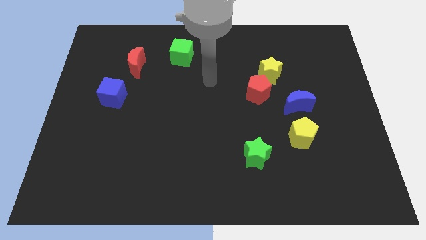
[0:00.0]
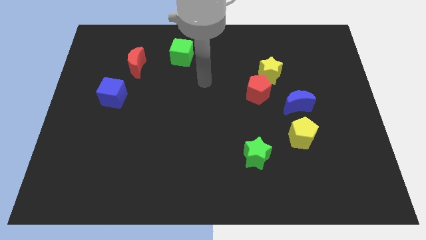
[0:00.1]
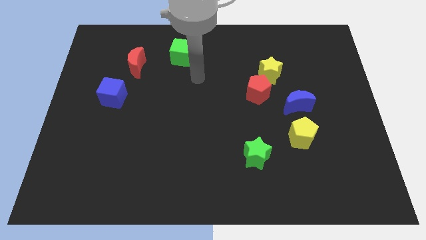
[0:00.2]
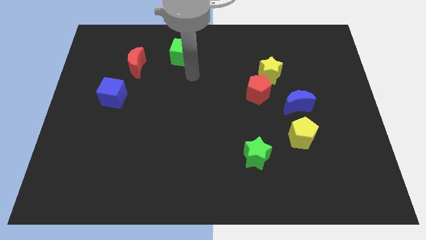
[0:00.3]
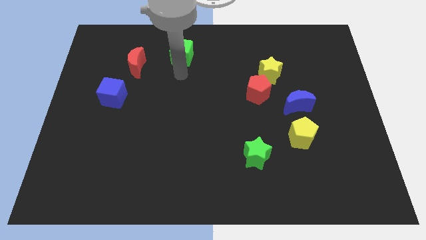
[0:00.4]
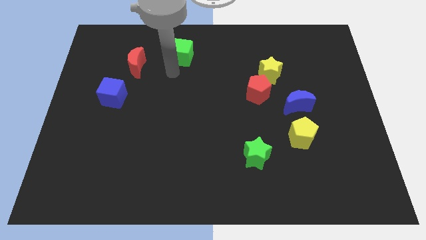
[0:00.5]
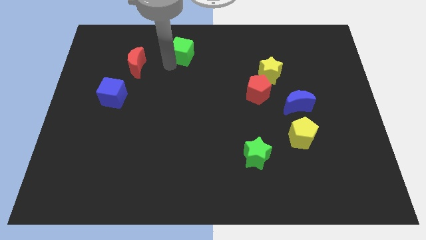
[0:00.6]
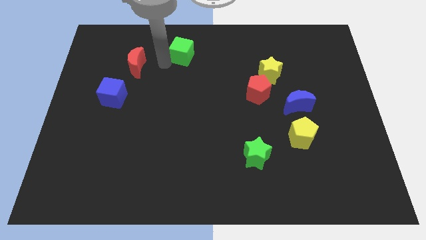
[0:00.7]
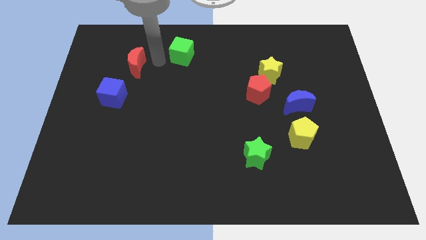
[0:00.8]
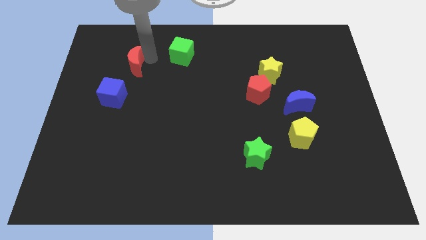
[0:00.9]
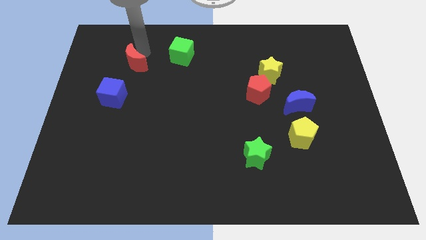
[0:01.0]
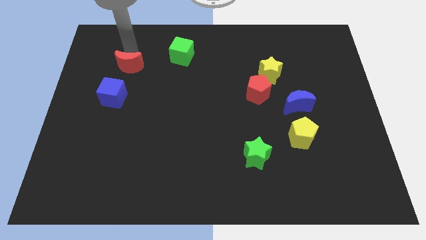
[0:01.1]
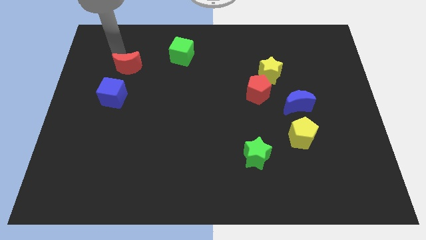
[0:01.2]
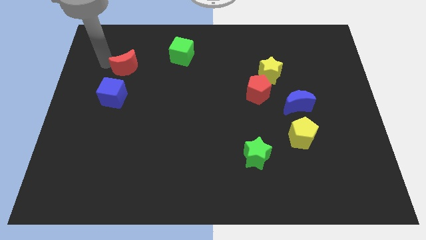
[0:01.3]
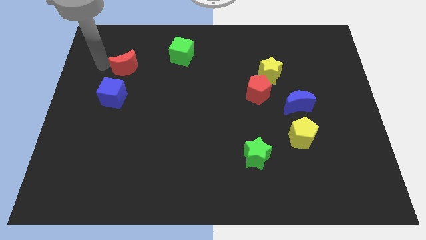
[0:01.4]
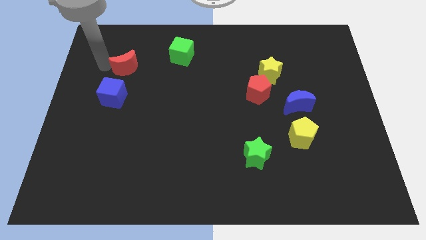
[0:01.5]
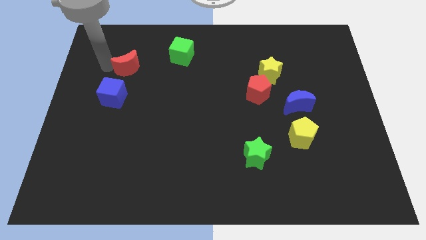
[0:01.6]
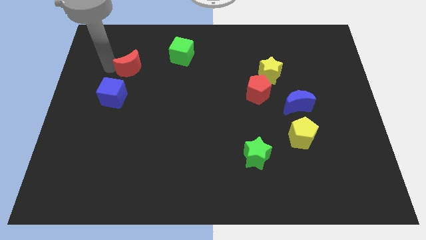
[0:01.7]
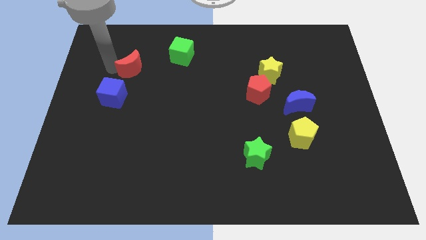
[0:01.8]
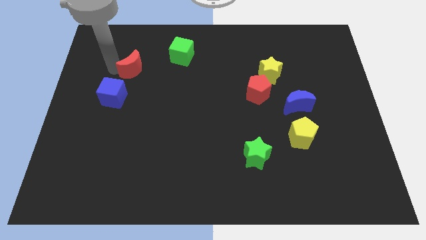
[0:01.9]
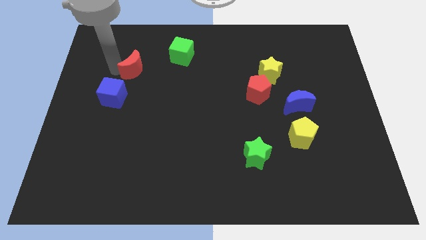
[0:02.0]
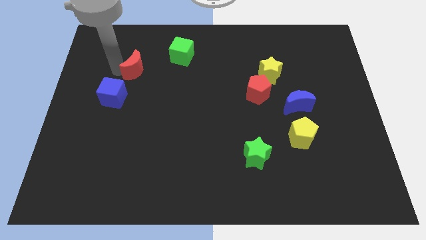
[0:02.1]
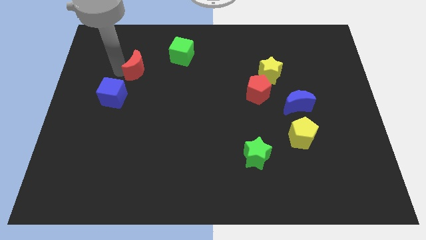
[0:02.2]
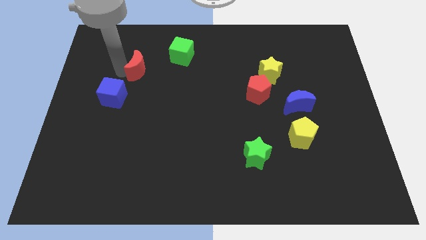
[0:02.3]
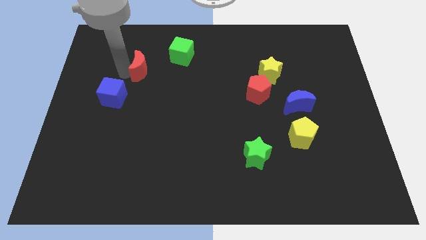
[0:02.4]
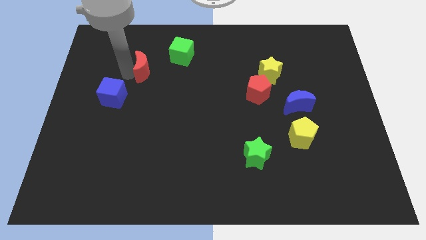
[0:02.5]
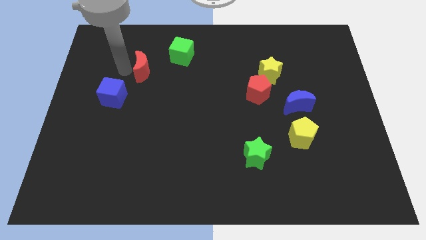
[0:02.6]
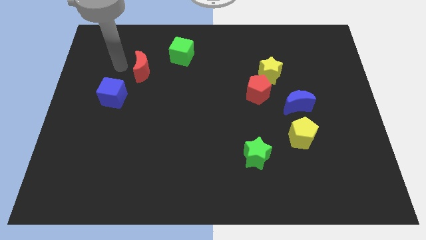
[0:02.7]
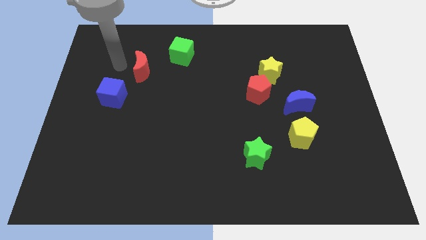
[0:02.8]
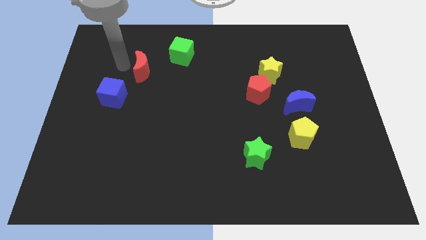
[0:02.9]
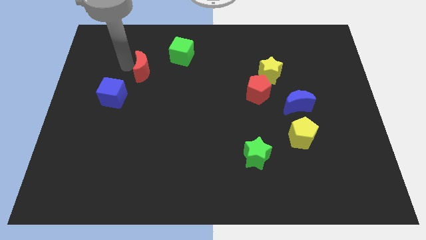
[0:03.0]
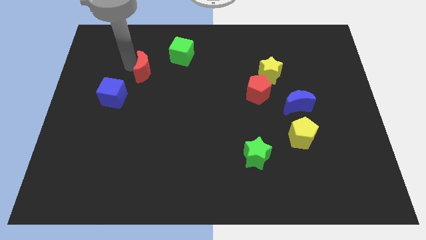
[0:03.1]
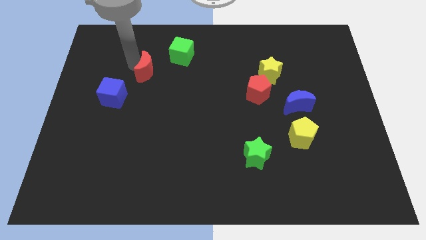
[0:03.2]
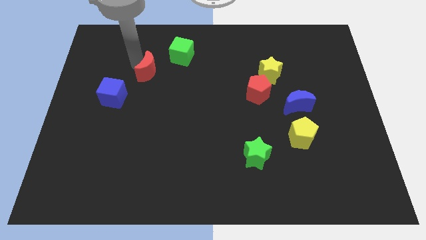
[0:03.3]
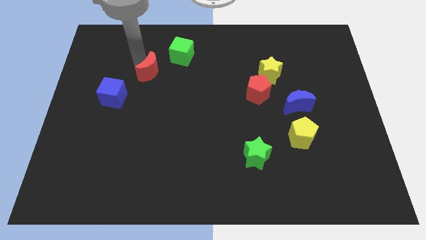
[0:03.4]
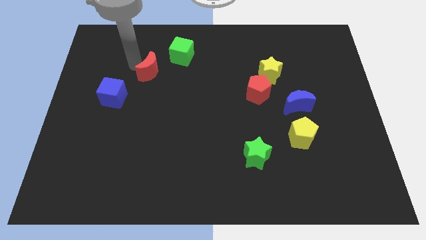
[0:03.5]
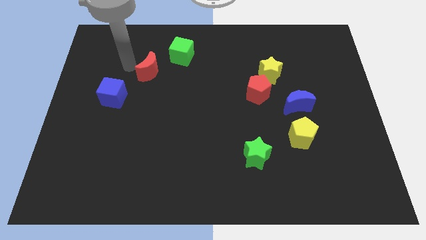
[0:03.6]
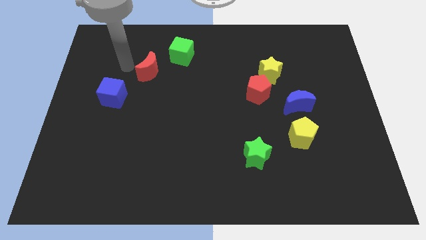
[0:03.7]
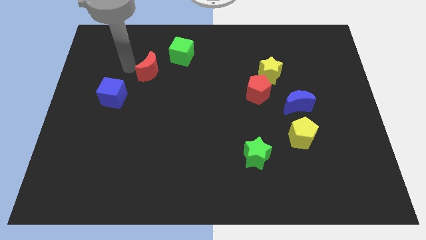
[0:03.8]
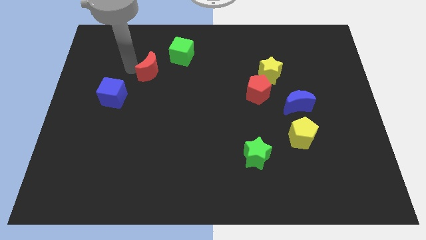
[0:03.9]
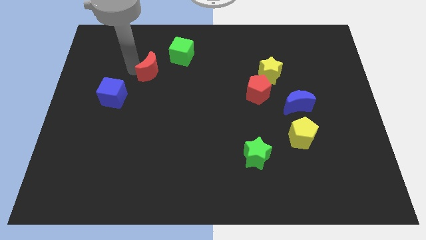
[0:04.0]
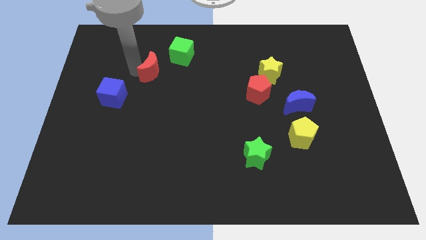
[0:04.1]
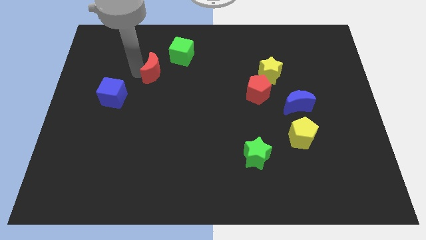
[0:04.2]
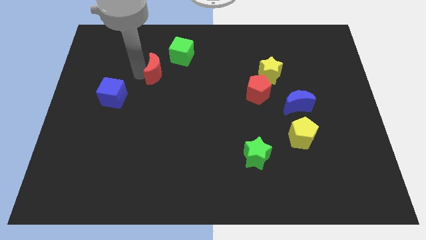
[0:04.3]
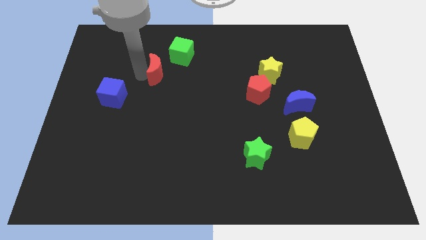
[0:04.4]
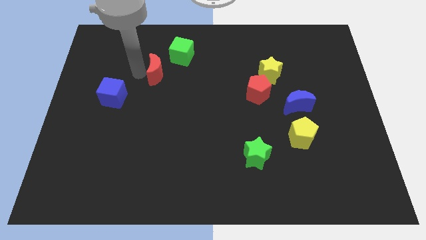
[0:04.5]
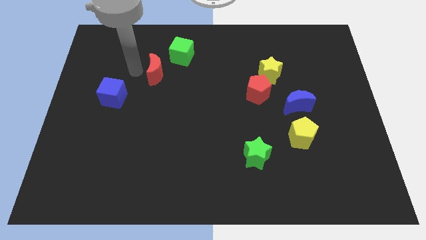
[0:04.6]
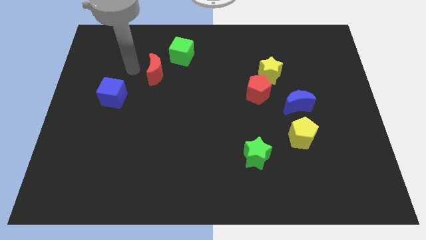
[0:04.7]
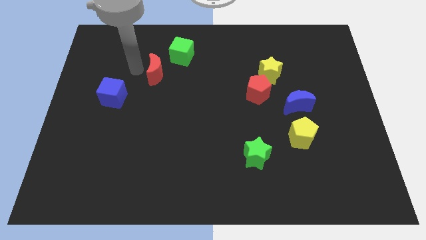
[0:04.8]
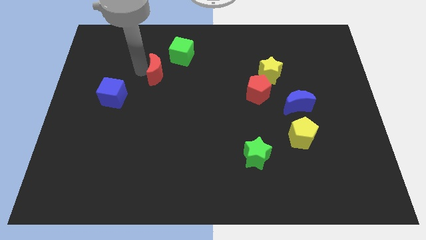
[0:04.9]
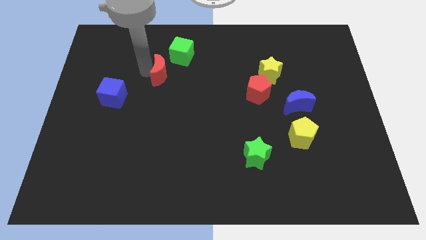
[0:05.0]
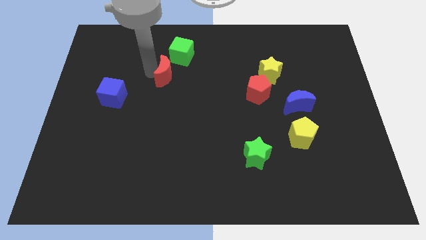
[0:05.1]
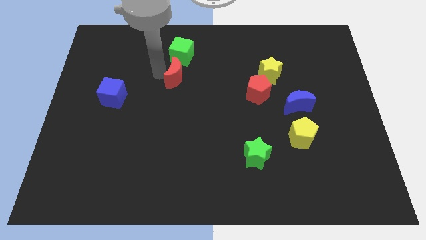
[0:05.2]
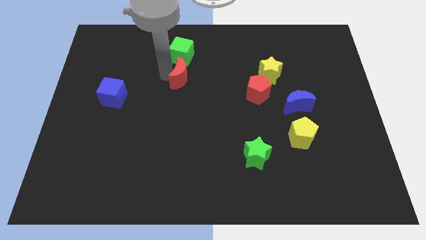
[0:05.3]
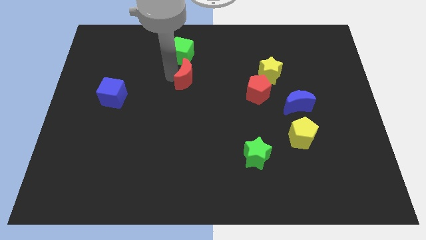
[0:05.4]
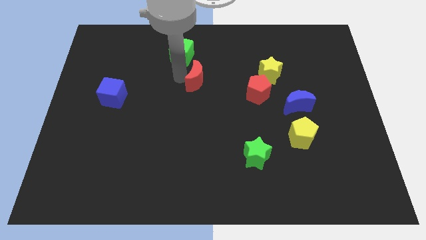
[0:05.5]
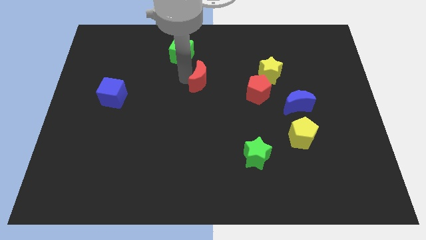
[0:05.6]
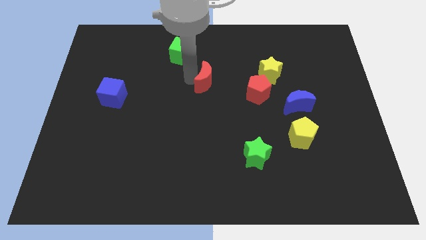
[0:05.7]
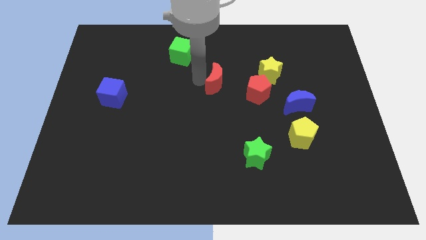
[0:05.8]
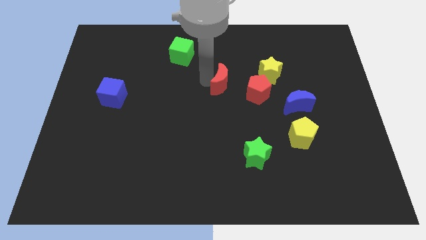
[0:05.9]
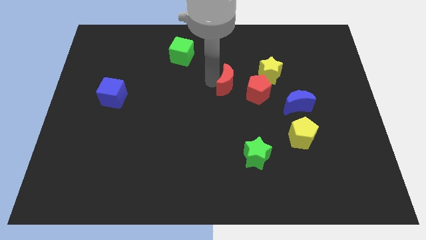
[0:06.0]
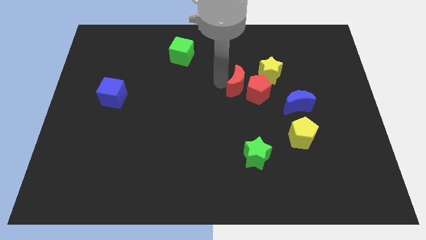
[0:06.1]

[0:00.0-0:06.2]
move the red moon next to the red pentagon

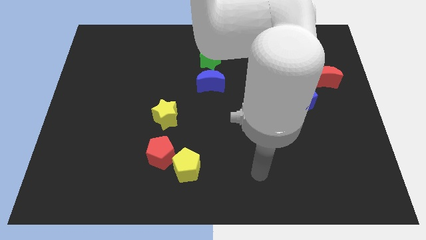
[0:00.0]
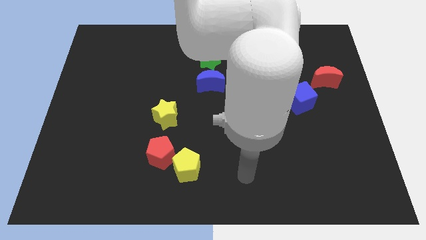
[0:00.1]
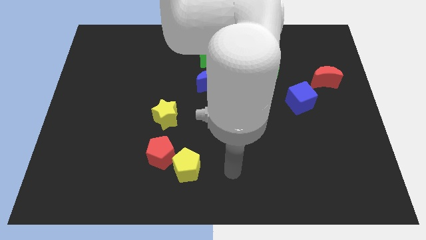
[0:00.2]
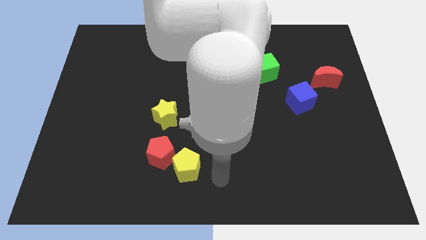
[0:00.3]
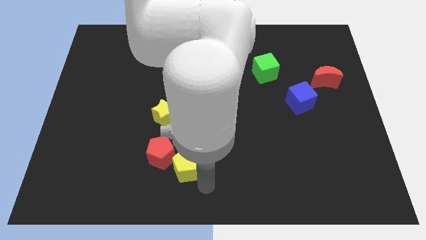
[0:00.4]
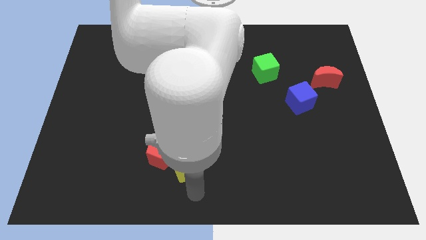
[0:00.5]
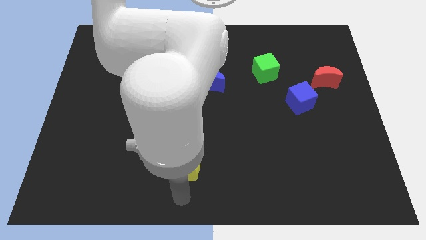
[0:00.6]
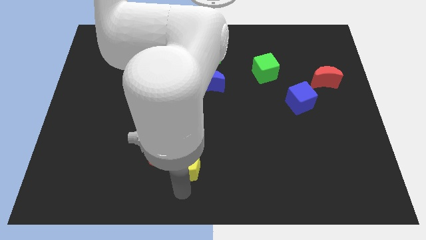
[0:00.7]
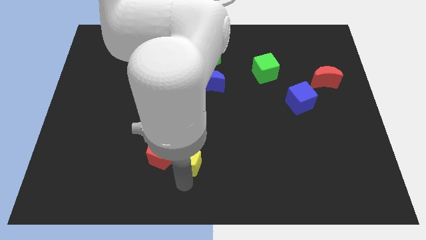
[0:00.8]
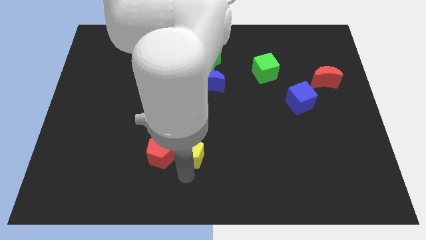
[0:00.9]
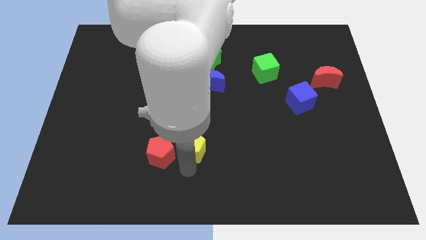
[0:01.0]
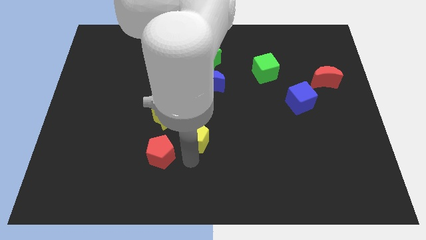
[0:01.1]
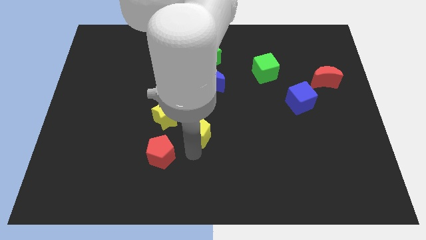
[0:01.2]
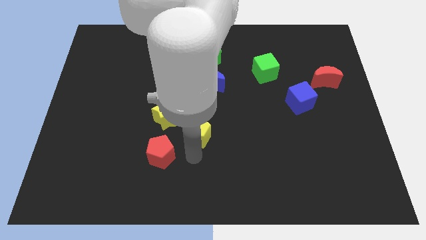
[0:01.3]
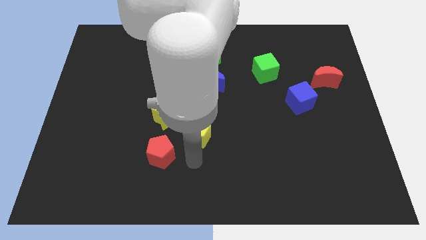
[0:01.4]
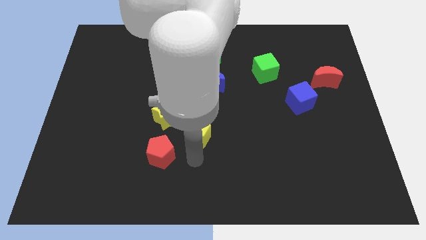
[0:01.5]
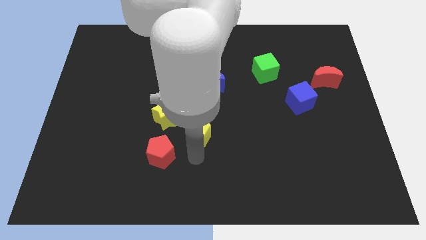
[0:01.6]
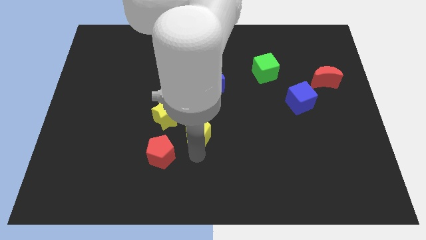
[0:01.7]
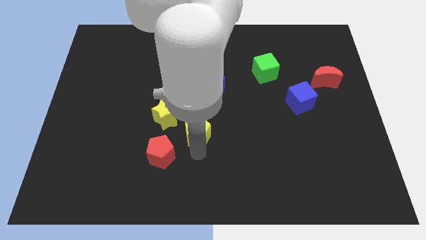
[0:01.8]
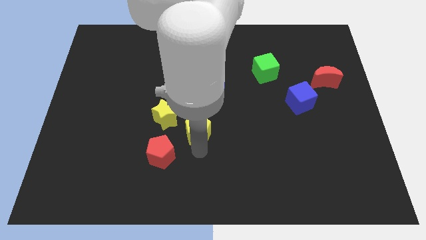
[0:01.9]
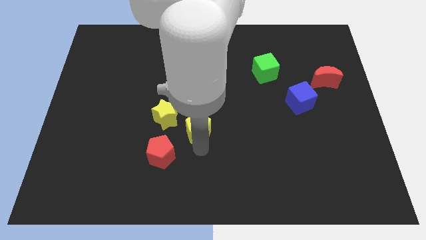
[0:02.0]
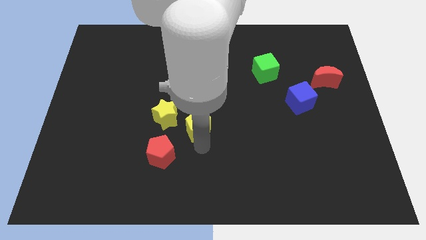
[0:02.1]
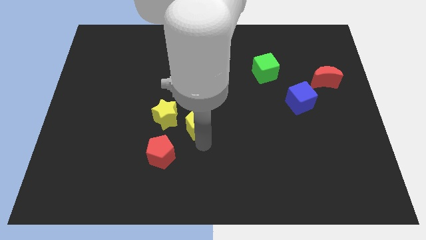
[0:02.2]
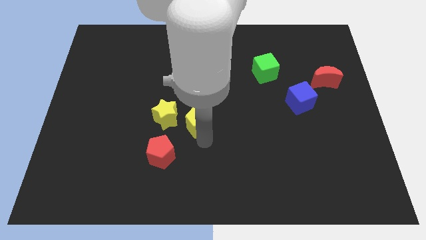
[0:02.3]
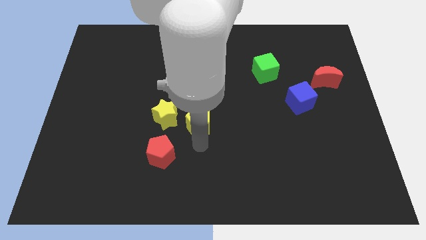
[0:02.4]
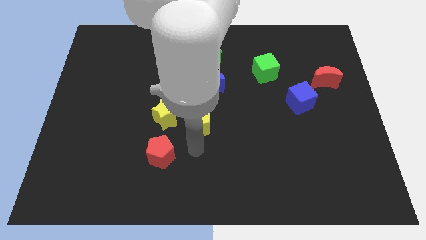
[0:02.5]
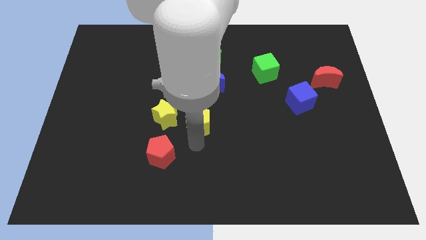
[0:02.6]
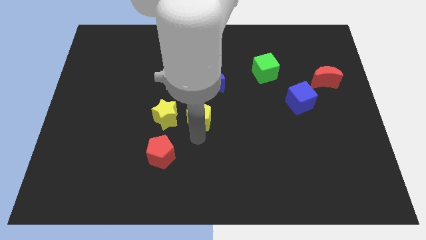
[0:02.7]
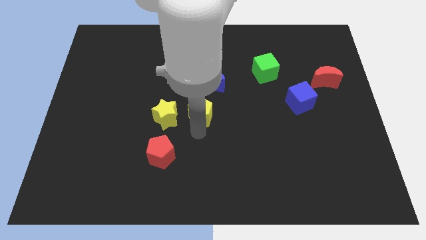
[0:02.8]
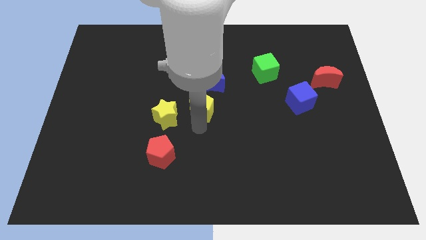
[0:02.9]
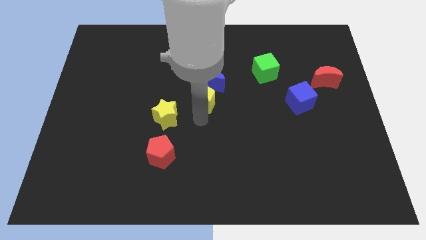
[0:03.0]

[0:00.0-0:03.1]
push the yellow pentagon to the blue moon
